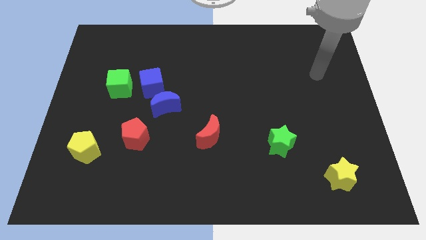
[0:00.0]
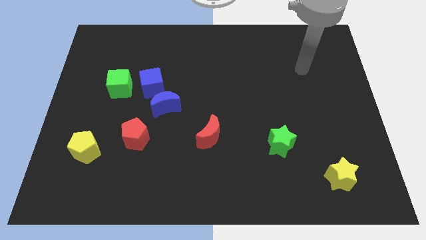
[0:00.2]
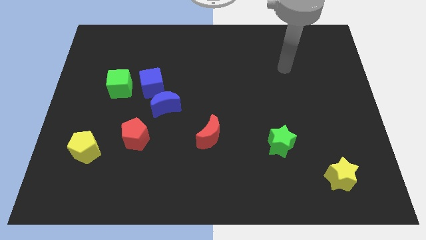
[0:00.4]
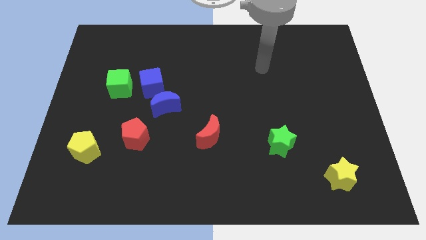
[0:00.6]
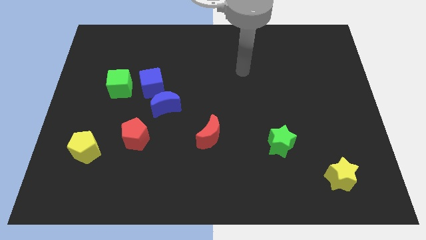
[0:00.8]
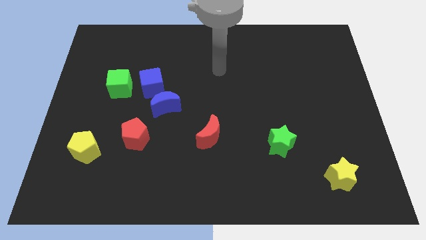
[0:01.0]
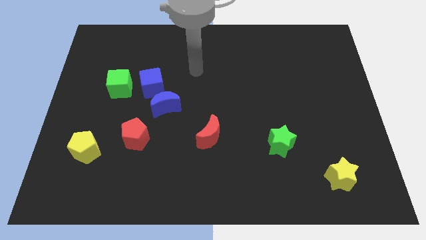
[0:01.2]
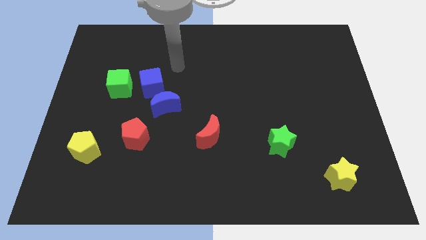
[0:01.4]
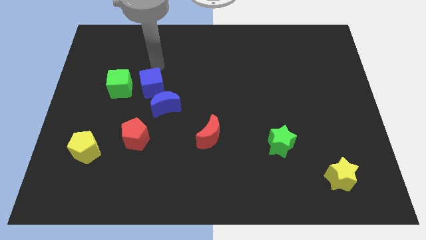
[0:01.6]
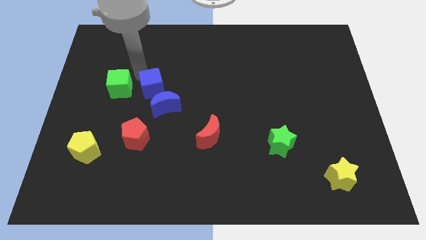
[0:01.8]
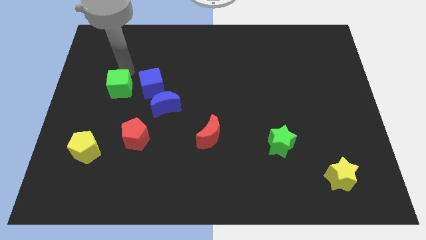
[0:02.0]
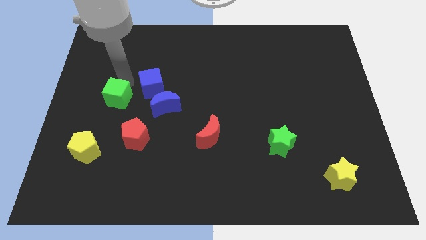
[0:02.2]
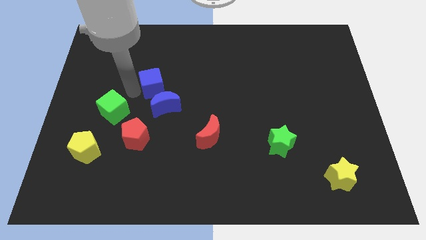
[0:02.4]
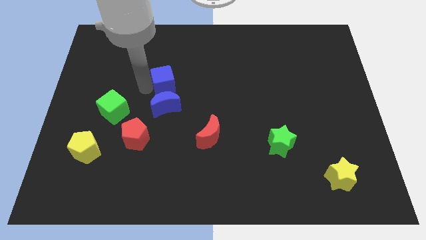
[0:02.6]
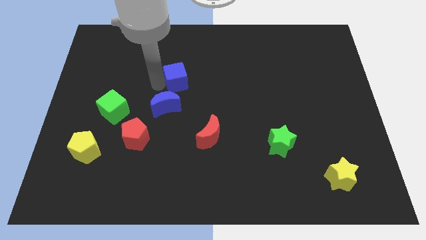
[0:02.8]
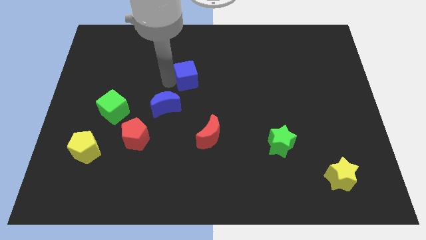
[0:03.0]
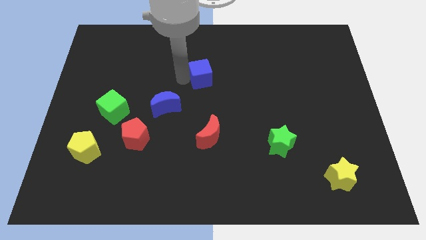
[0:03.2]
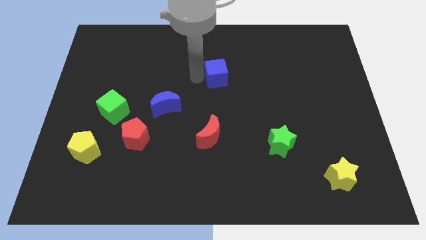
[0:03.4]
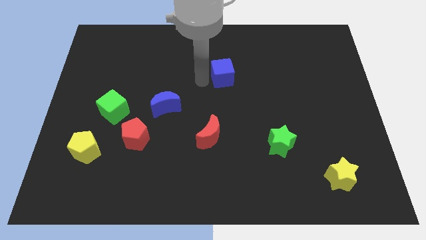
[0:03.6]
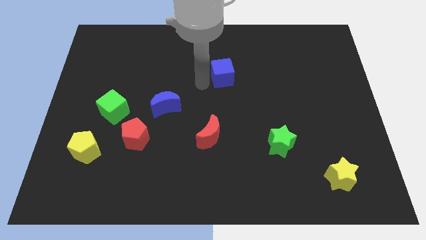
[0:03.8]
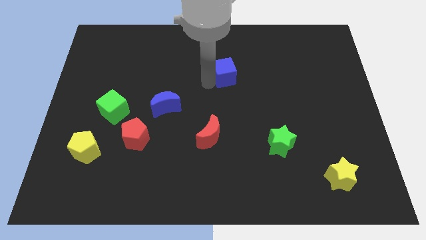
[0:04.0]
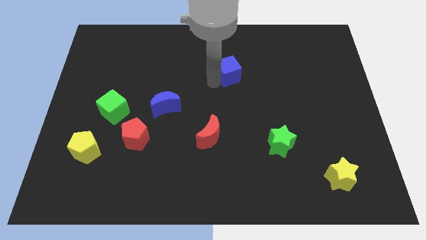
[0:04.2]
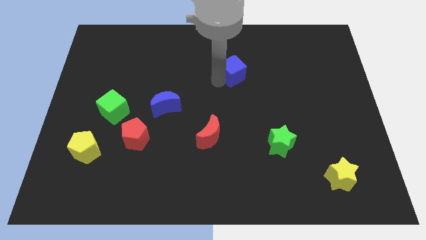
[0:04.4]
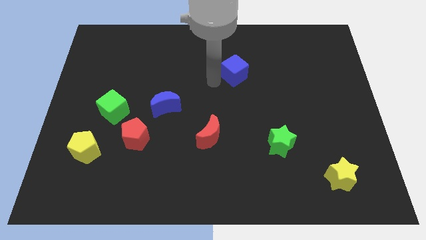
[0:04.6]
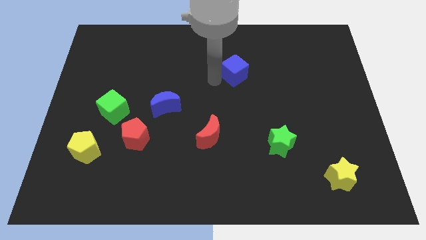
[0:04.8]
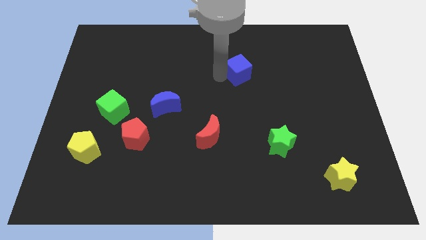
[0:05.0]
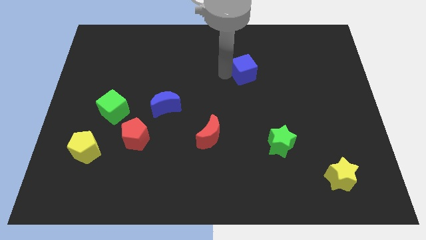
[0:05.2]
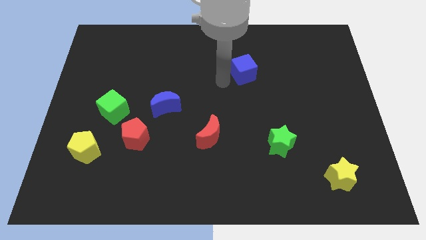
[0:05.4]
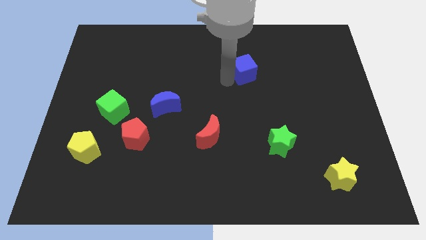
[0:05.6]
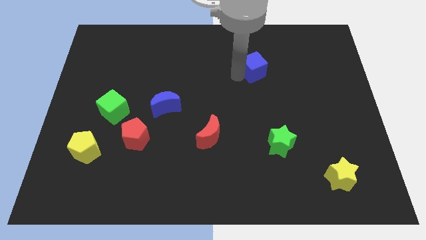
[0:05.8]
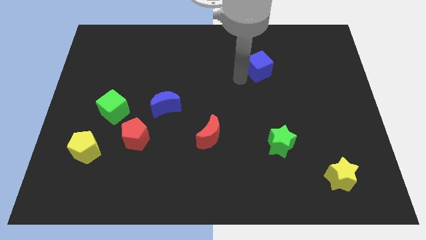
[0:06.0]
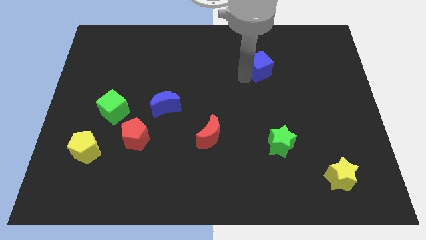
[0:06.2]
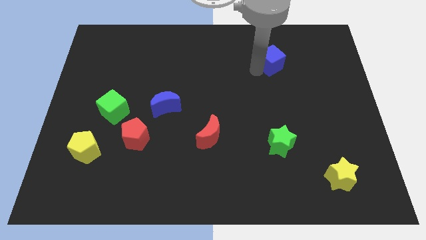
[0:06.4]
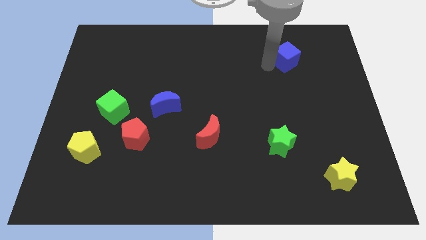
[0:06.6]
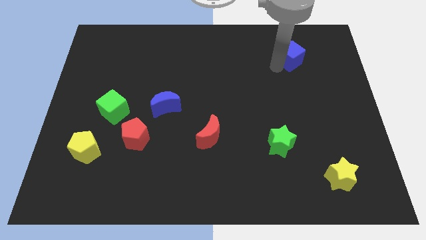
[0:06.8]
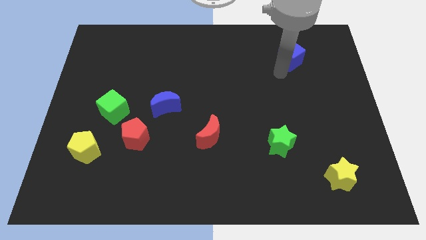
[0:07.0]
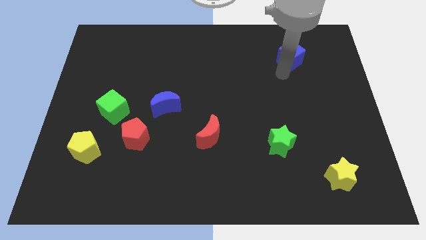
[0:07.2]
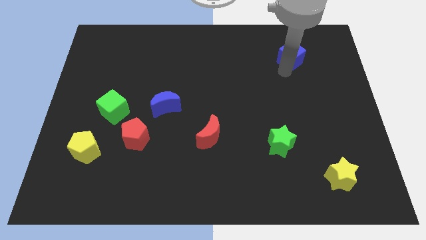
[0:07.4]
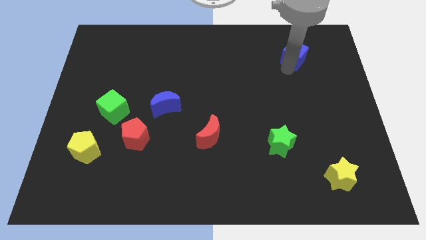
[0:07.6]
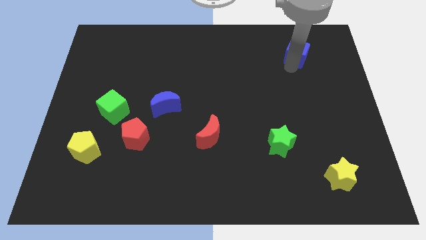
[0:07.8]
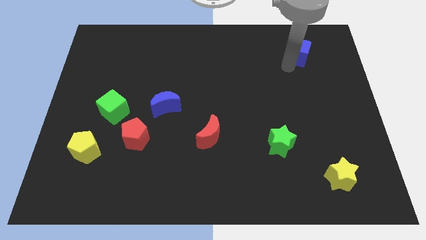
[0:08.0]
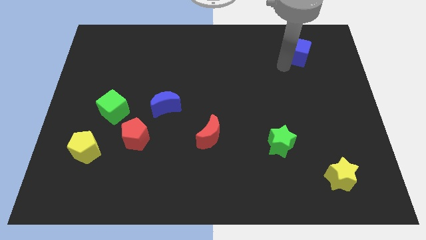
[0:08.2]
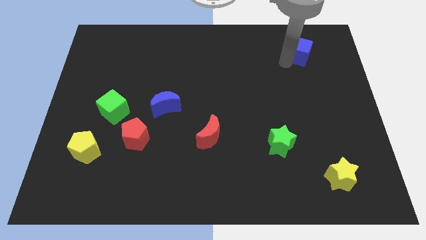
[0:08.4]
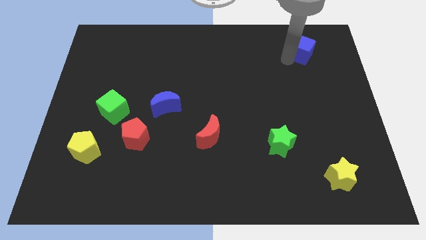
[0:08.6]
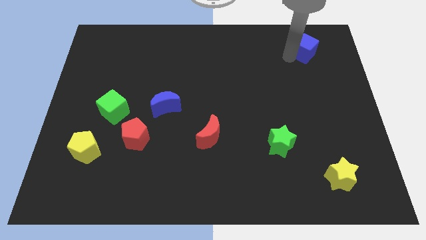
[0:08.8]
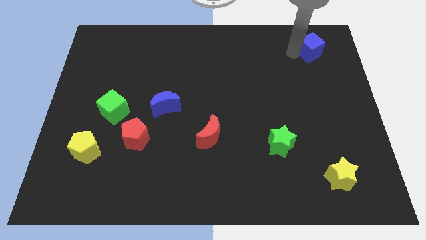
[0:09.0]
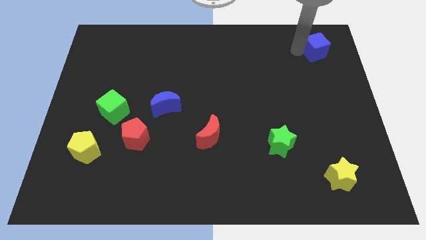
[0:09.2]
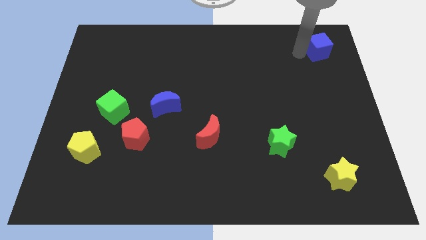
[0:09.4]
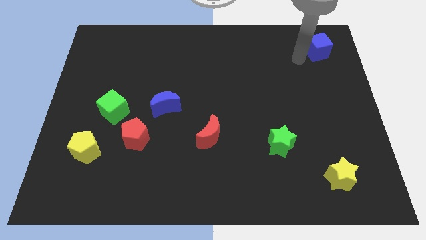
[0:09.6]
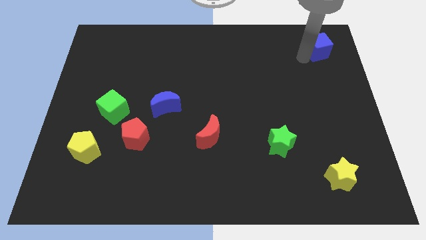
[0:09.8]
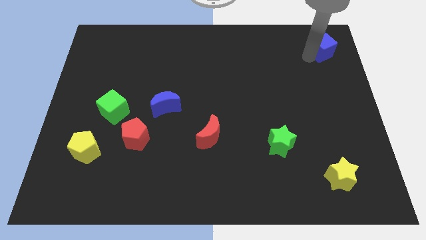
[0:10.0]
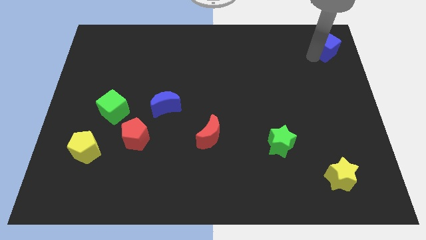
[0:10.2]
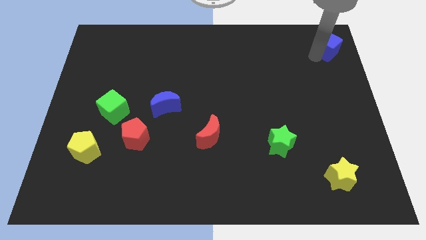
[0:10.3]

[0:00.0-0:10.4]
move the blue cube to the top right corner

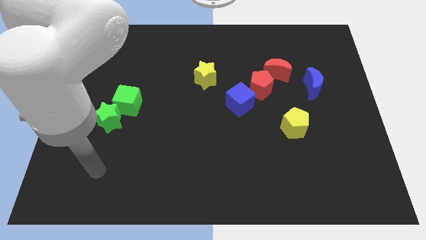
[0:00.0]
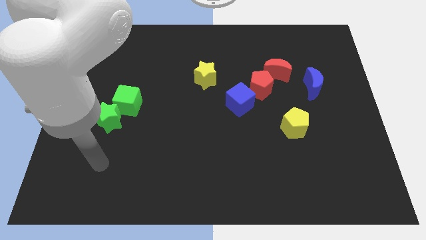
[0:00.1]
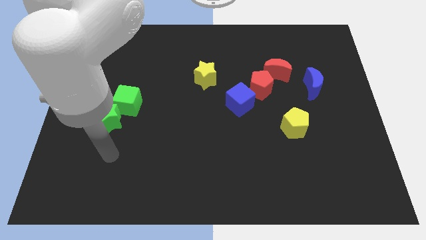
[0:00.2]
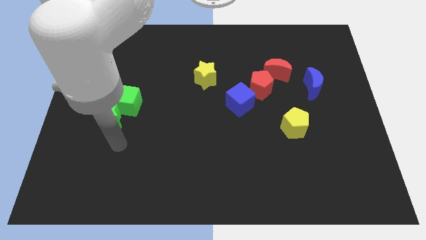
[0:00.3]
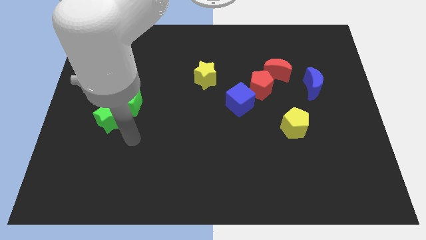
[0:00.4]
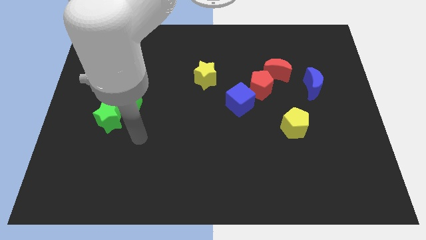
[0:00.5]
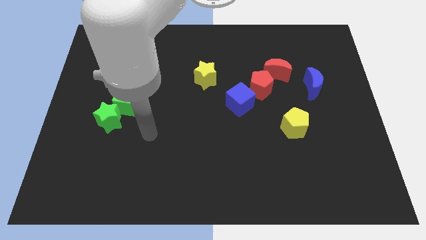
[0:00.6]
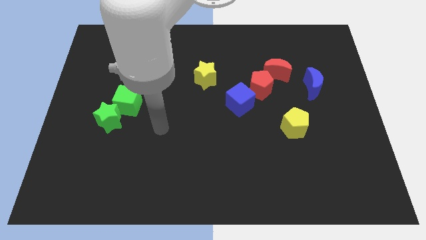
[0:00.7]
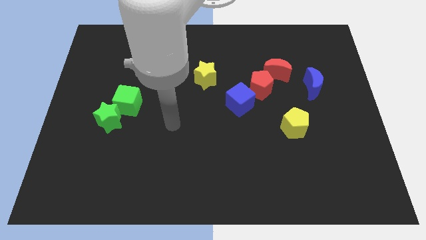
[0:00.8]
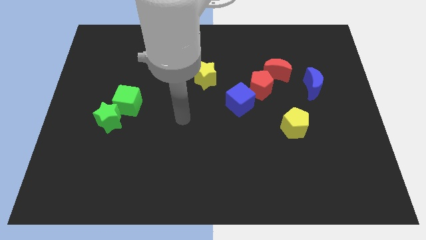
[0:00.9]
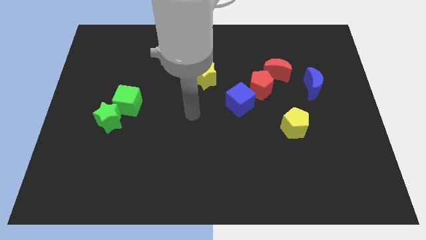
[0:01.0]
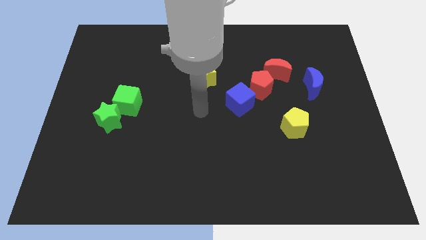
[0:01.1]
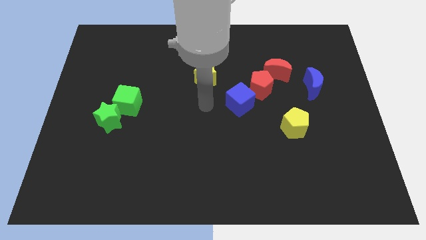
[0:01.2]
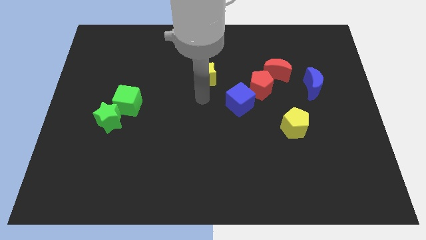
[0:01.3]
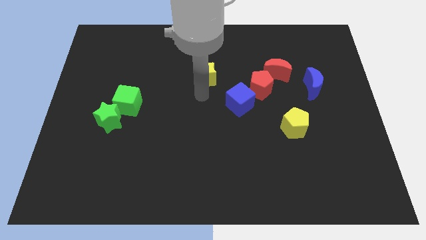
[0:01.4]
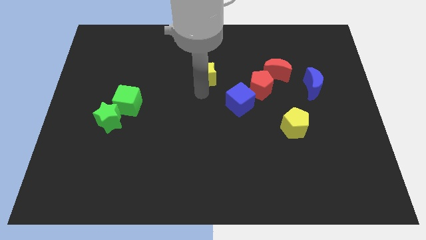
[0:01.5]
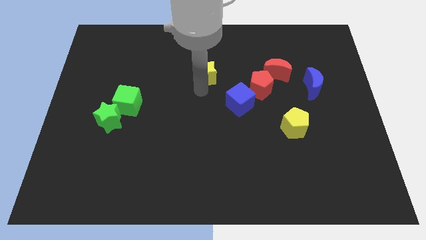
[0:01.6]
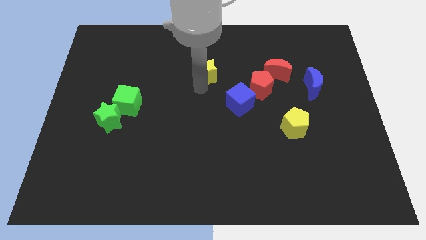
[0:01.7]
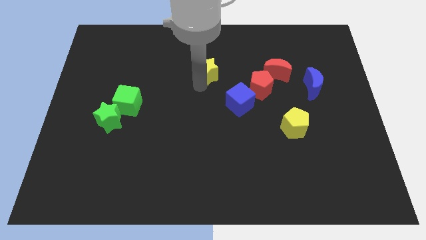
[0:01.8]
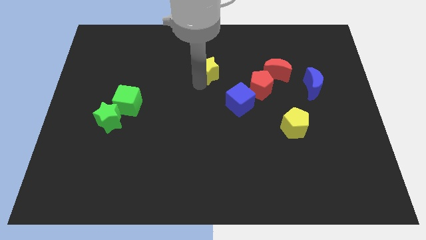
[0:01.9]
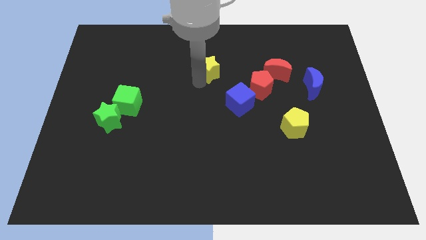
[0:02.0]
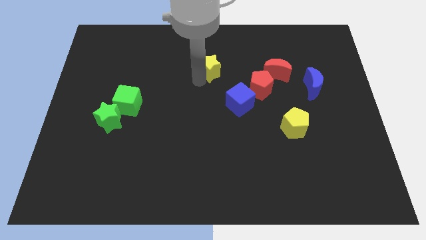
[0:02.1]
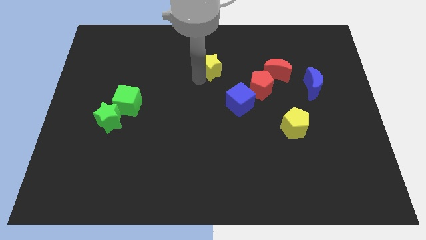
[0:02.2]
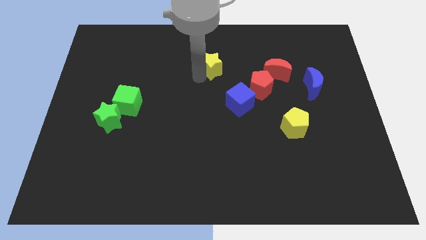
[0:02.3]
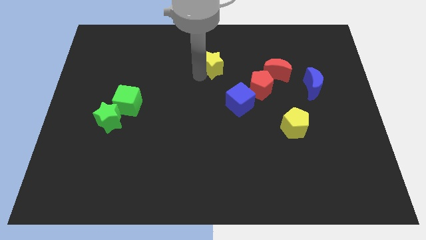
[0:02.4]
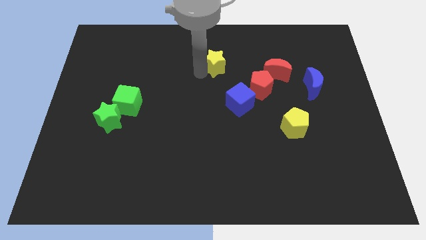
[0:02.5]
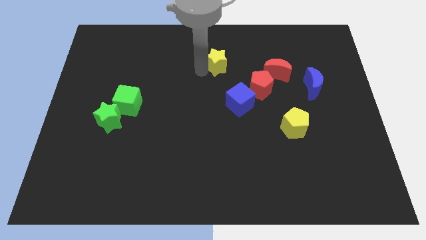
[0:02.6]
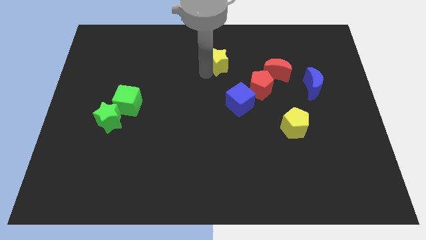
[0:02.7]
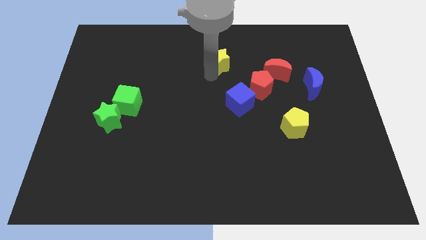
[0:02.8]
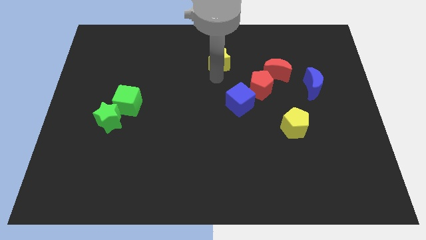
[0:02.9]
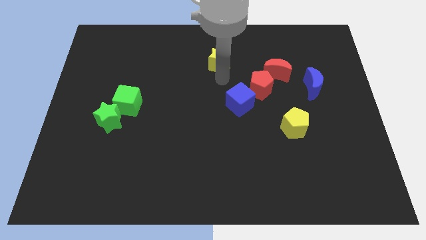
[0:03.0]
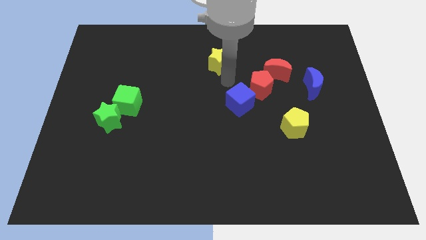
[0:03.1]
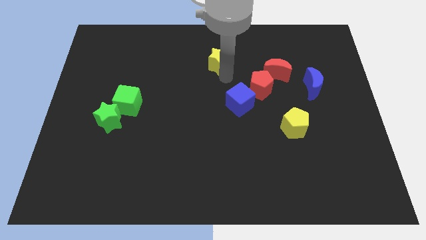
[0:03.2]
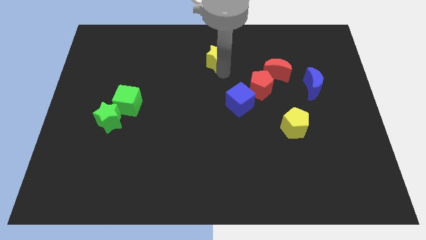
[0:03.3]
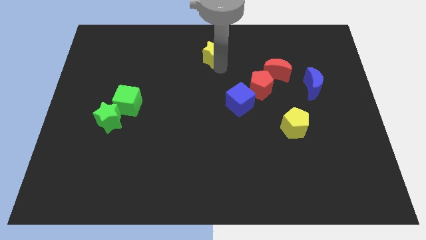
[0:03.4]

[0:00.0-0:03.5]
slide the yellow star to the top
